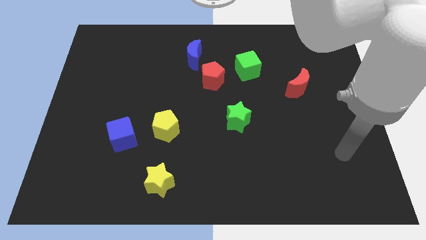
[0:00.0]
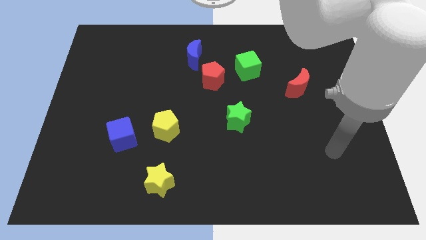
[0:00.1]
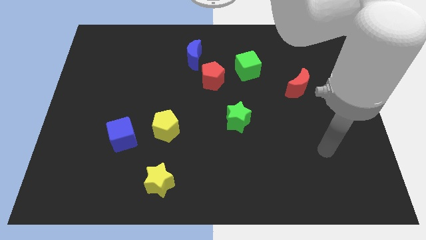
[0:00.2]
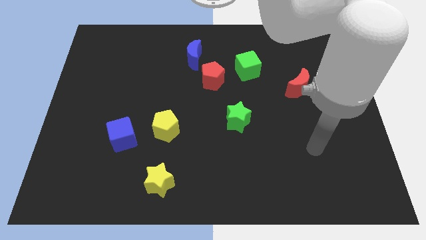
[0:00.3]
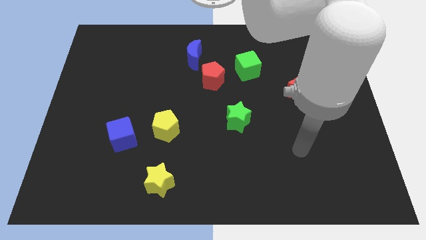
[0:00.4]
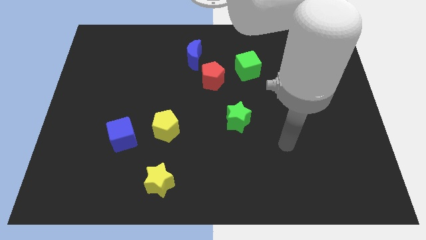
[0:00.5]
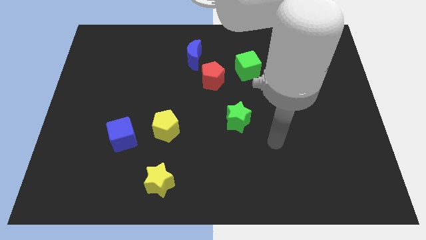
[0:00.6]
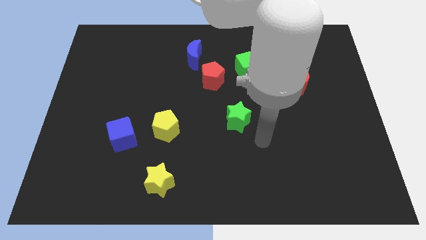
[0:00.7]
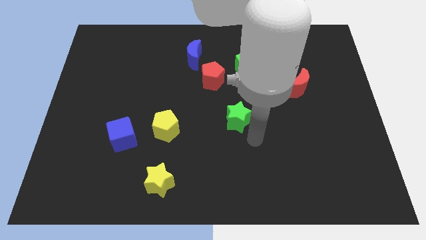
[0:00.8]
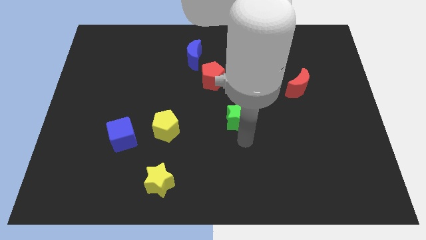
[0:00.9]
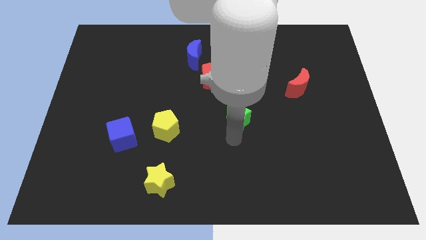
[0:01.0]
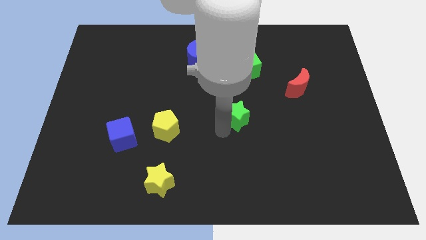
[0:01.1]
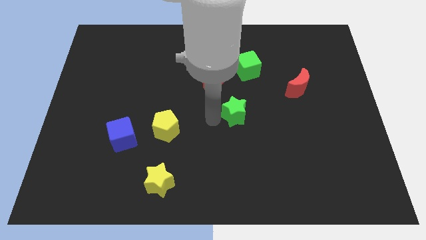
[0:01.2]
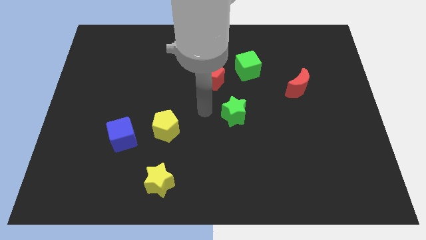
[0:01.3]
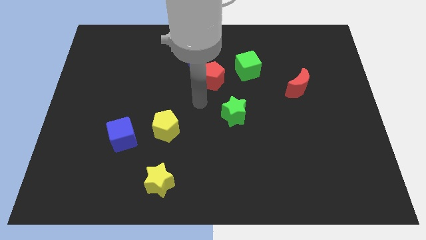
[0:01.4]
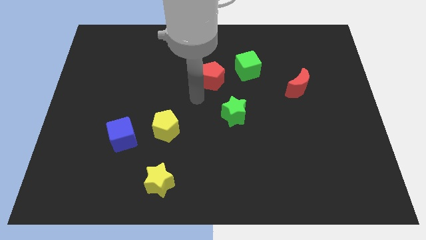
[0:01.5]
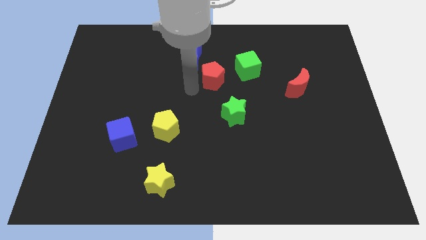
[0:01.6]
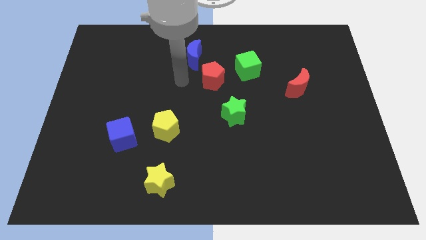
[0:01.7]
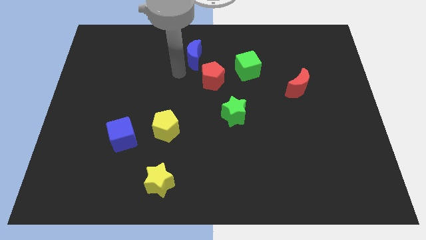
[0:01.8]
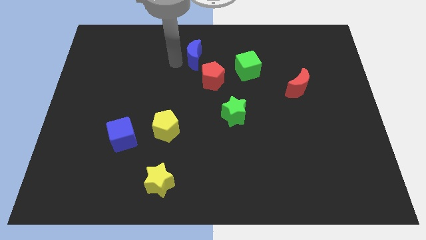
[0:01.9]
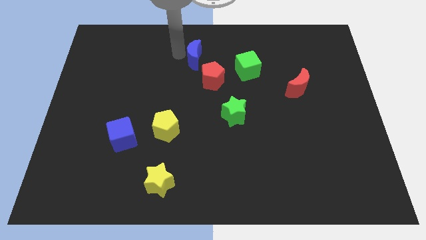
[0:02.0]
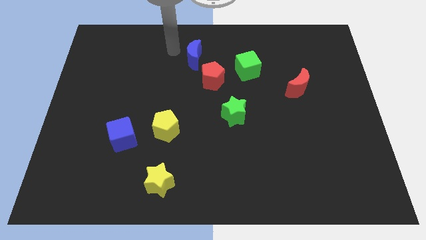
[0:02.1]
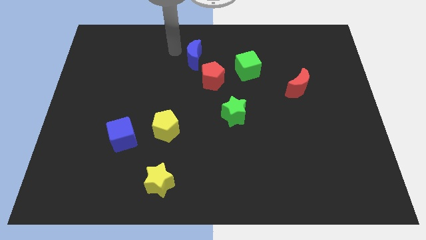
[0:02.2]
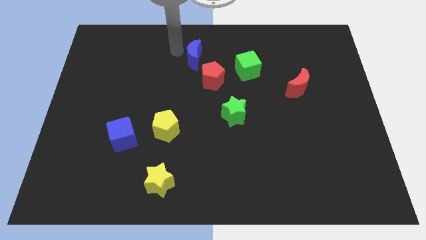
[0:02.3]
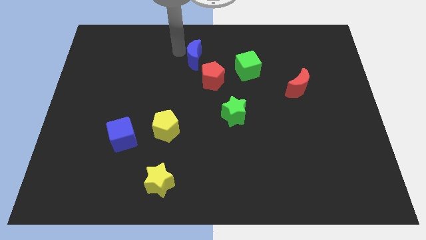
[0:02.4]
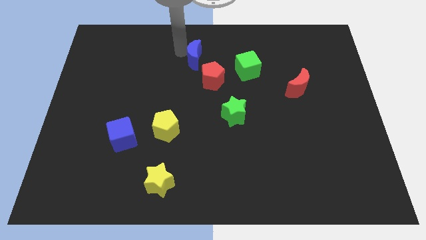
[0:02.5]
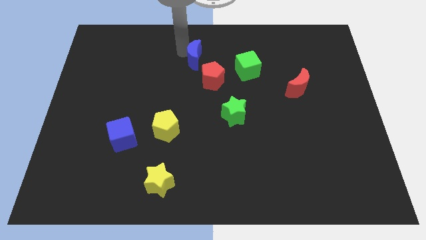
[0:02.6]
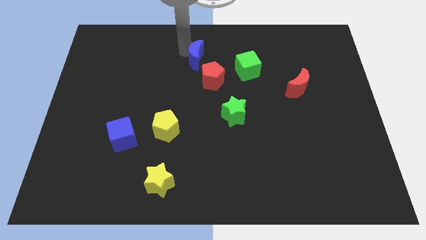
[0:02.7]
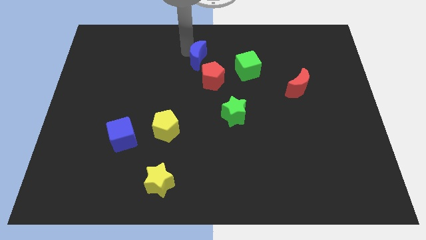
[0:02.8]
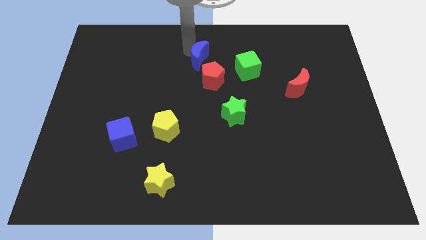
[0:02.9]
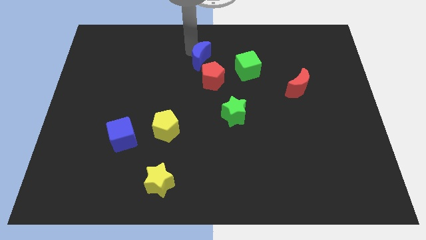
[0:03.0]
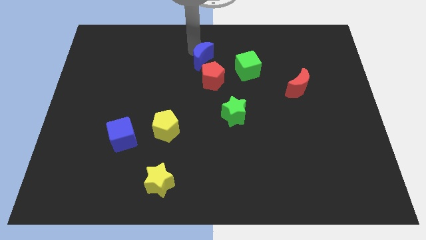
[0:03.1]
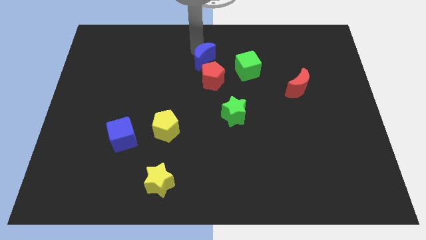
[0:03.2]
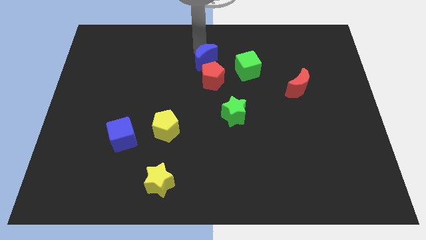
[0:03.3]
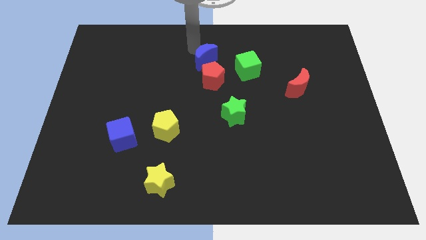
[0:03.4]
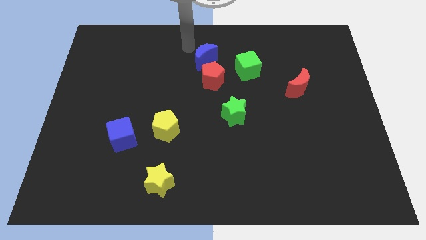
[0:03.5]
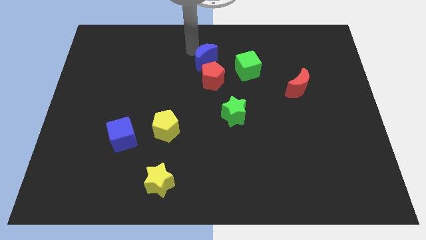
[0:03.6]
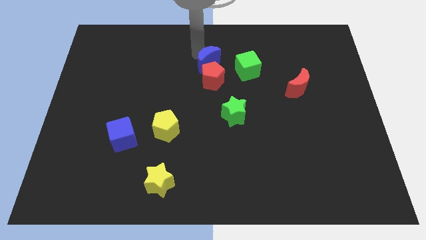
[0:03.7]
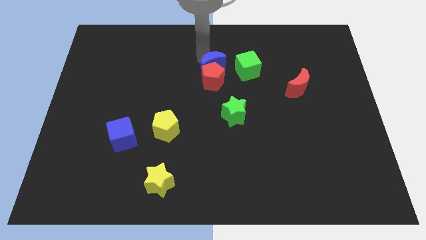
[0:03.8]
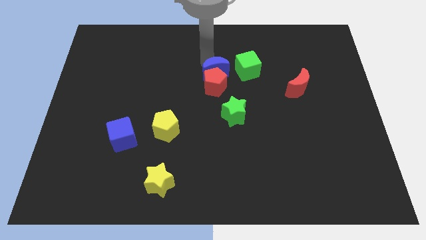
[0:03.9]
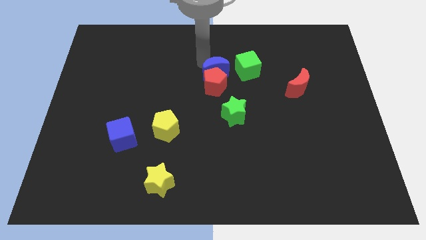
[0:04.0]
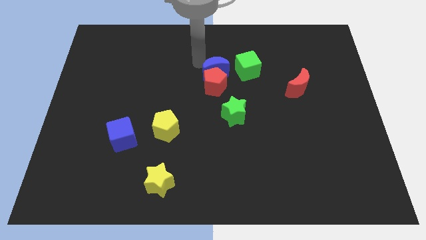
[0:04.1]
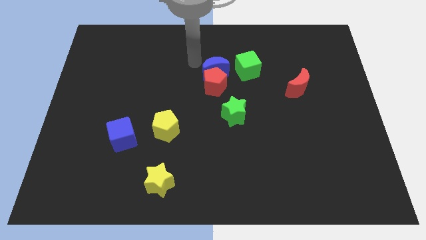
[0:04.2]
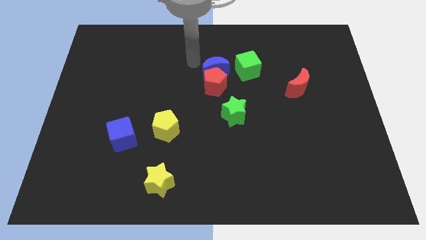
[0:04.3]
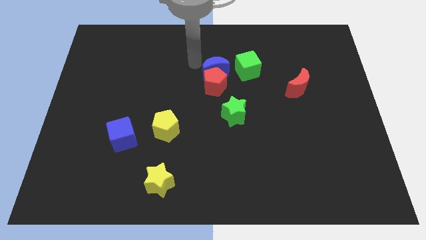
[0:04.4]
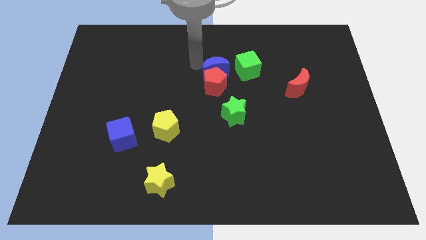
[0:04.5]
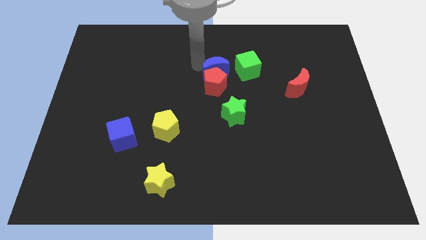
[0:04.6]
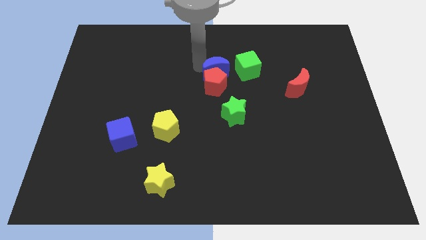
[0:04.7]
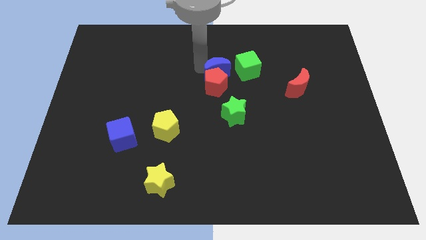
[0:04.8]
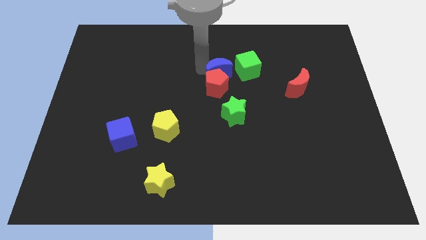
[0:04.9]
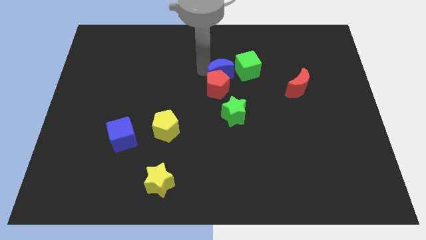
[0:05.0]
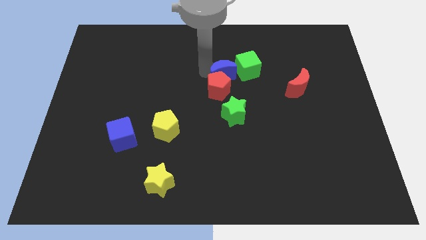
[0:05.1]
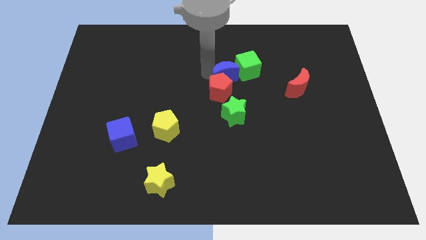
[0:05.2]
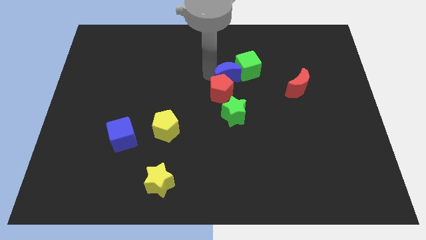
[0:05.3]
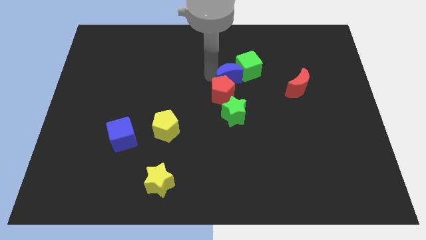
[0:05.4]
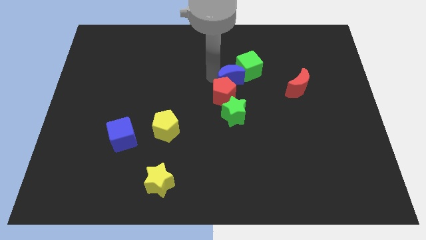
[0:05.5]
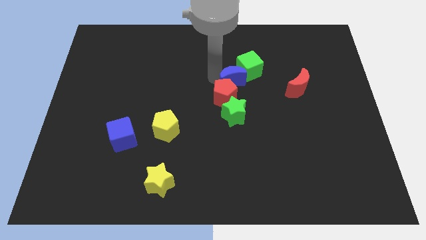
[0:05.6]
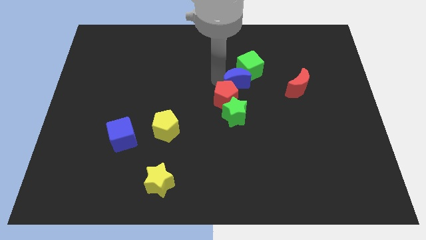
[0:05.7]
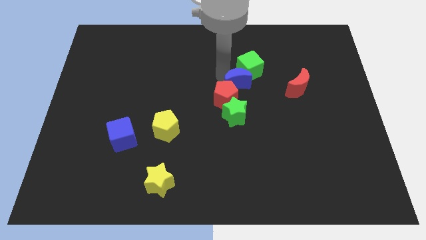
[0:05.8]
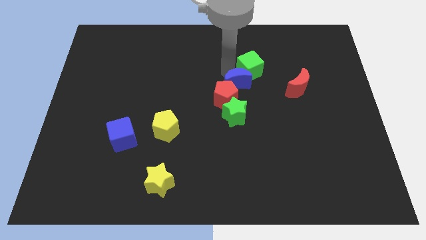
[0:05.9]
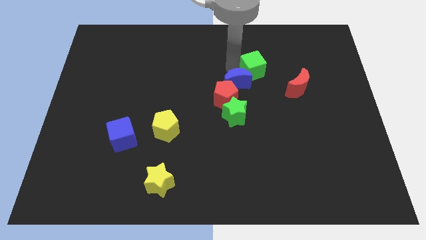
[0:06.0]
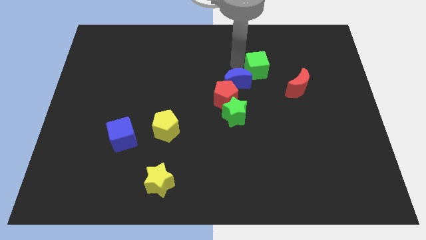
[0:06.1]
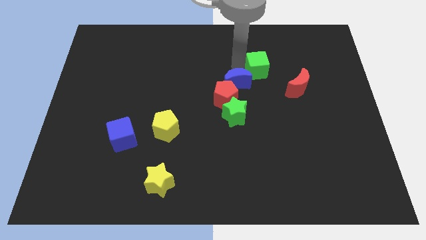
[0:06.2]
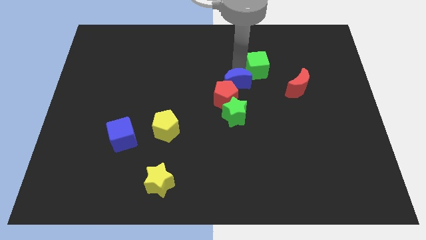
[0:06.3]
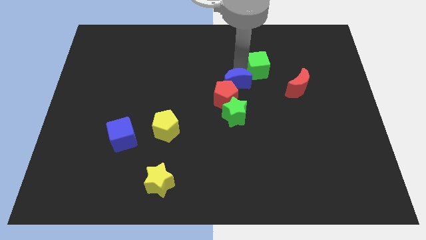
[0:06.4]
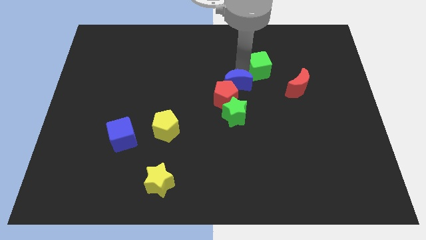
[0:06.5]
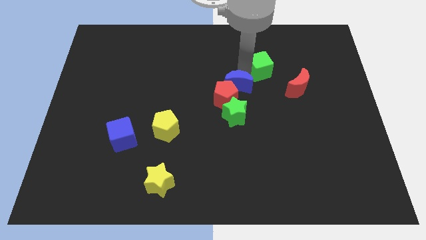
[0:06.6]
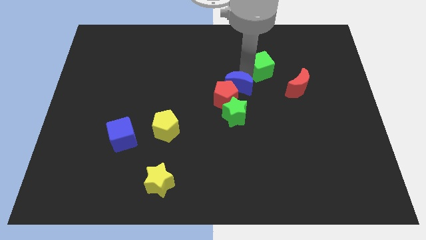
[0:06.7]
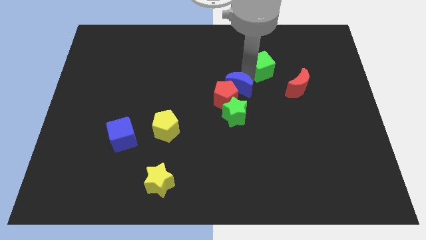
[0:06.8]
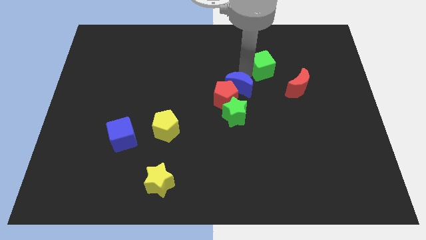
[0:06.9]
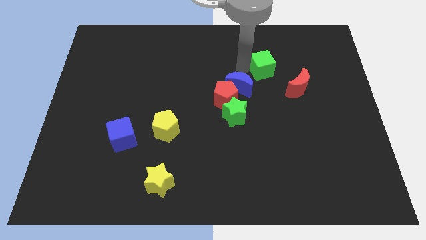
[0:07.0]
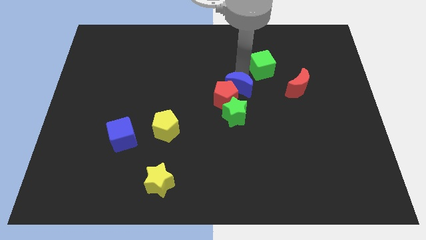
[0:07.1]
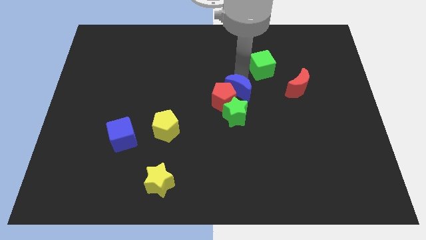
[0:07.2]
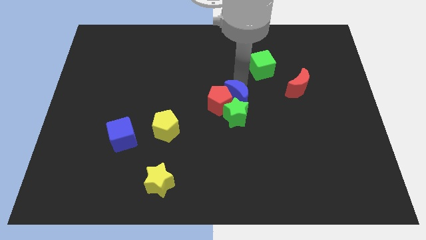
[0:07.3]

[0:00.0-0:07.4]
put the blue moon towards the green star
